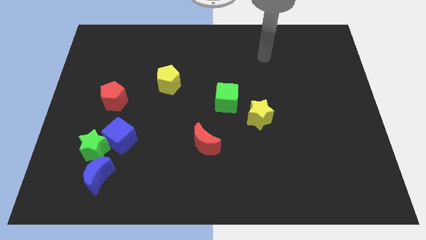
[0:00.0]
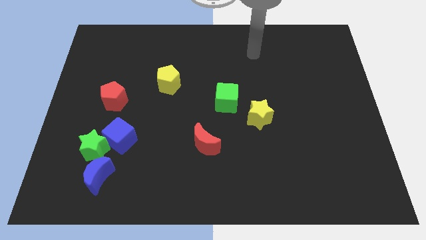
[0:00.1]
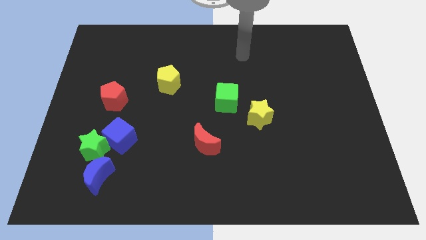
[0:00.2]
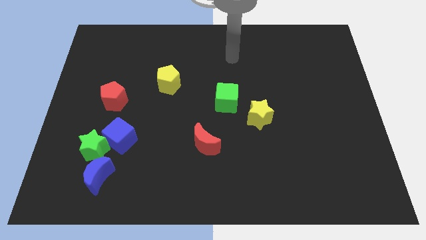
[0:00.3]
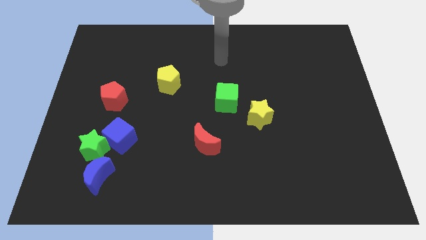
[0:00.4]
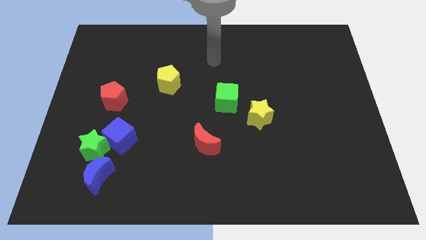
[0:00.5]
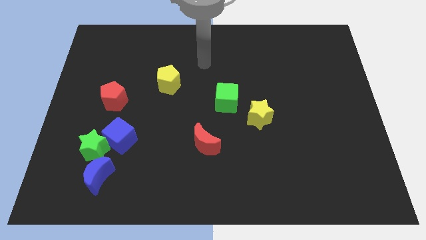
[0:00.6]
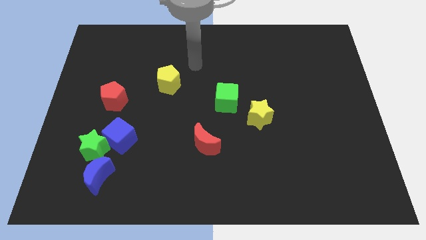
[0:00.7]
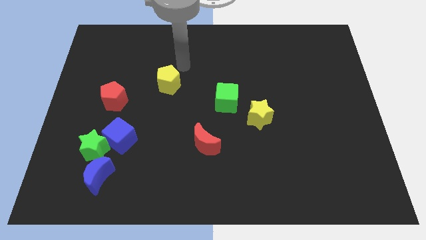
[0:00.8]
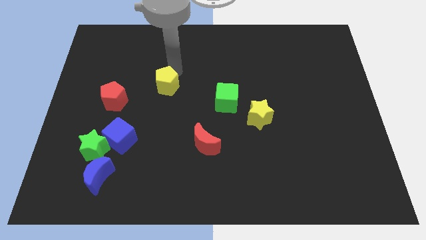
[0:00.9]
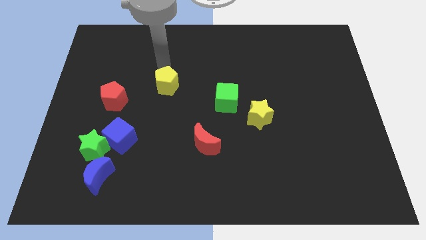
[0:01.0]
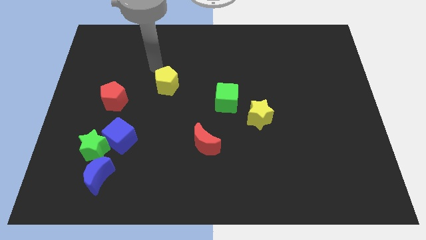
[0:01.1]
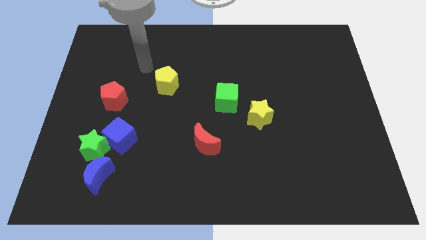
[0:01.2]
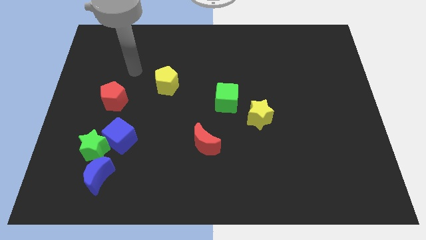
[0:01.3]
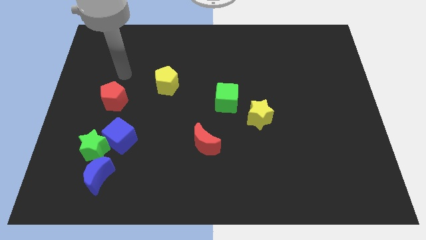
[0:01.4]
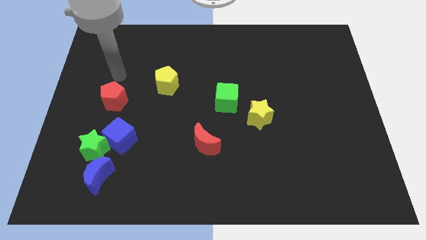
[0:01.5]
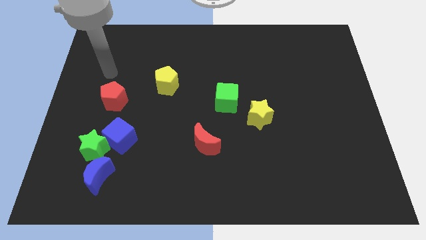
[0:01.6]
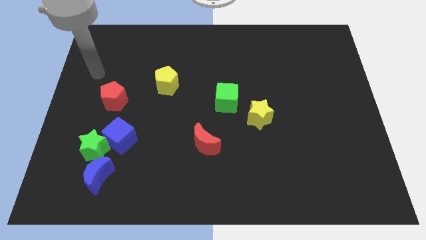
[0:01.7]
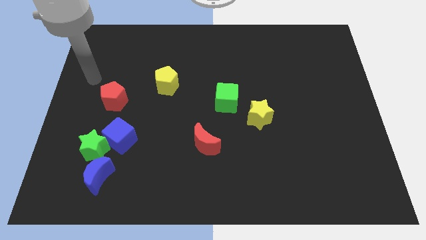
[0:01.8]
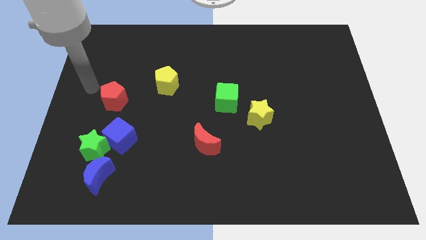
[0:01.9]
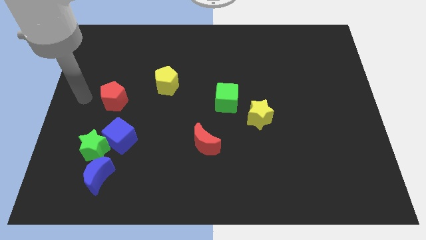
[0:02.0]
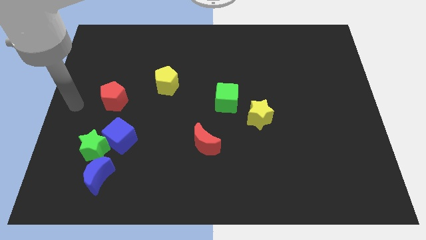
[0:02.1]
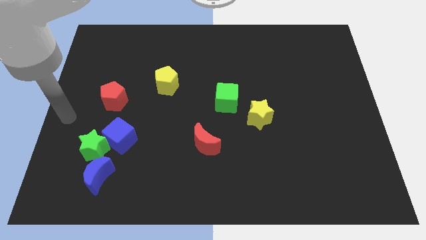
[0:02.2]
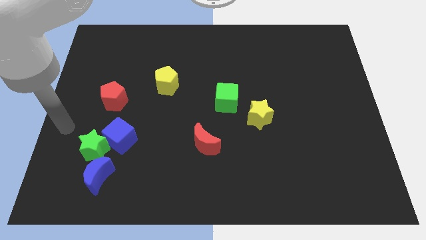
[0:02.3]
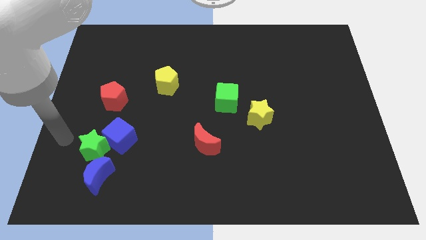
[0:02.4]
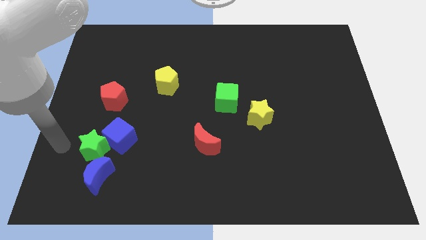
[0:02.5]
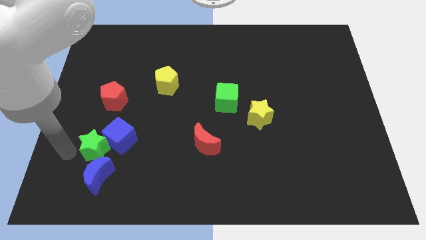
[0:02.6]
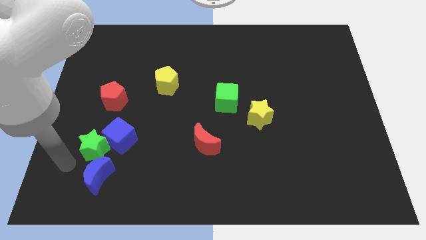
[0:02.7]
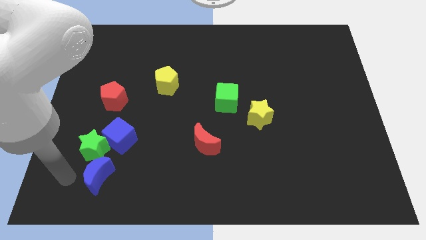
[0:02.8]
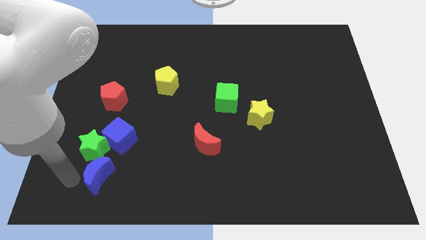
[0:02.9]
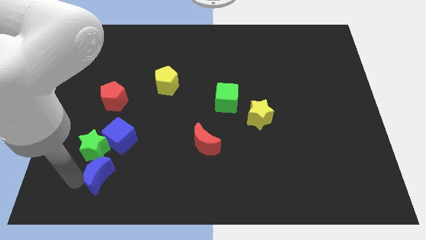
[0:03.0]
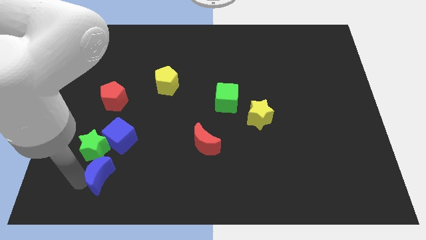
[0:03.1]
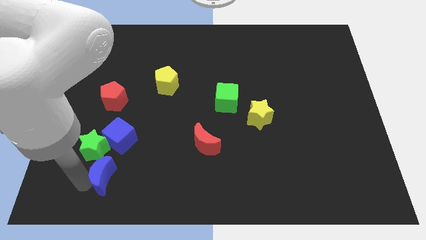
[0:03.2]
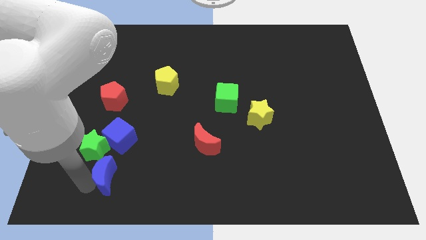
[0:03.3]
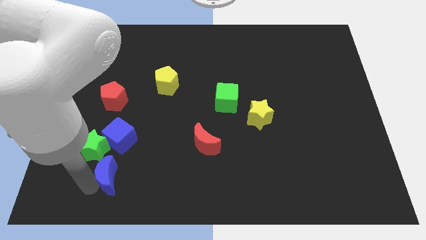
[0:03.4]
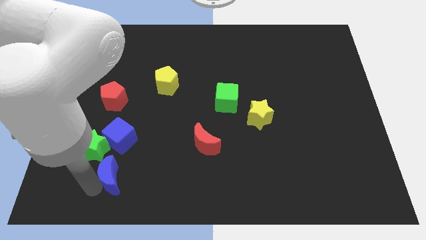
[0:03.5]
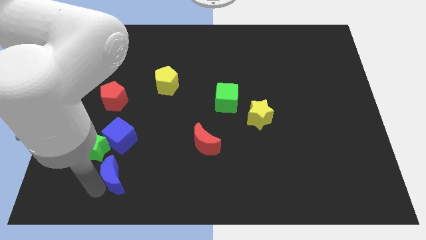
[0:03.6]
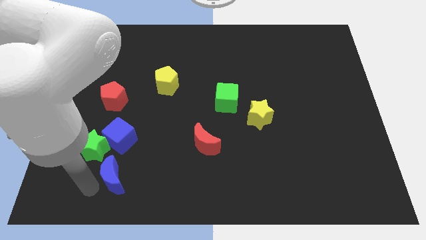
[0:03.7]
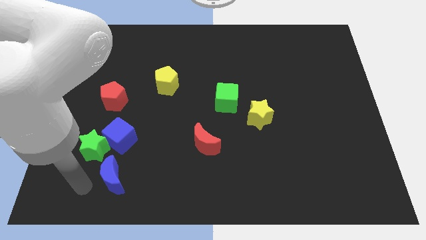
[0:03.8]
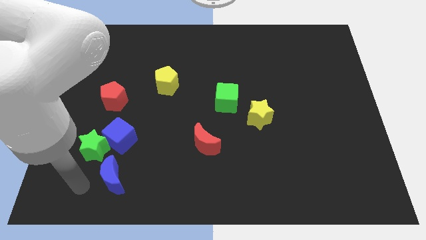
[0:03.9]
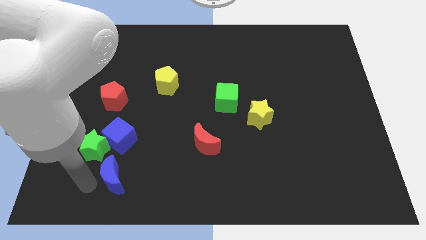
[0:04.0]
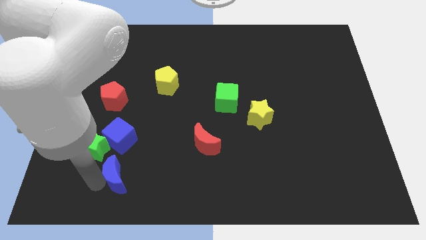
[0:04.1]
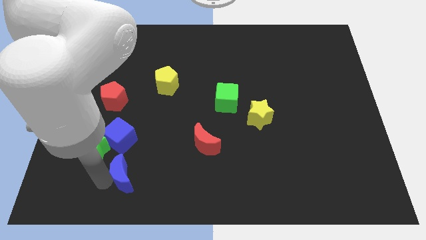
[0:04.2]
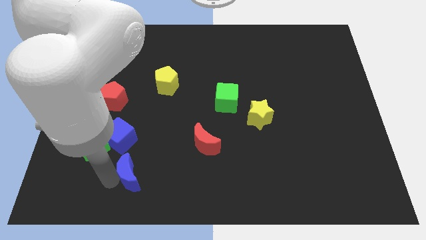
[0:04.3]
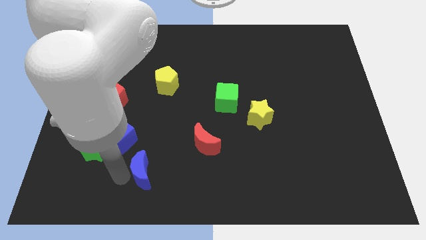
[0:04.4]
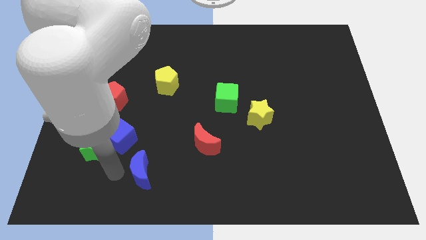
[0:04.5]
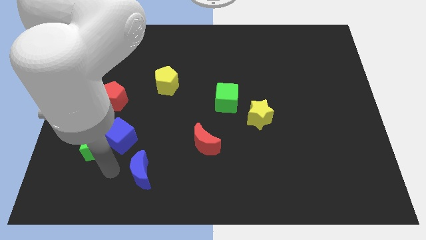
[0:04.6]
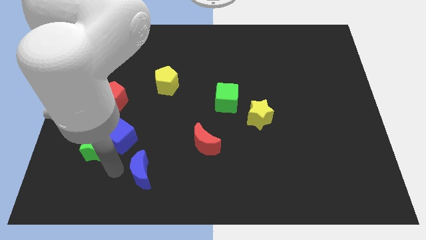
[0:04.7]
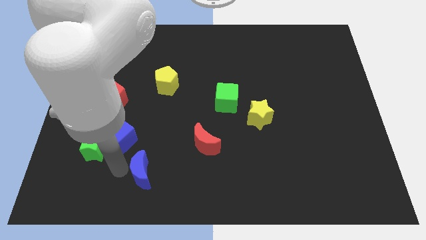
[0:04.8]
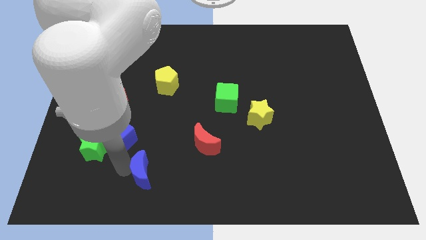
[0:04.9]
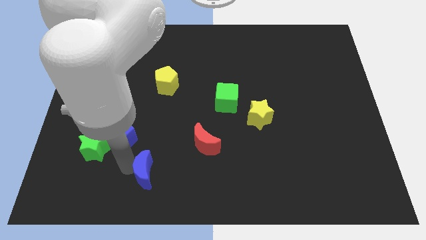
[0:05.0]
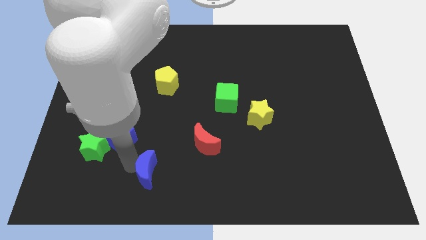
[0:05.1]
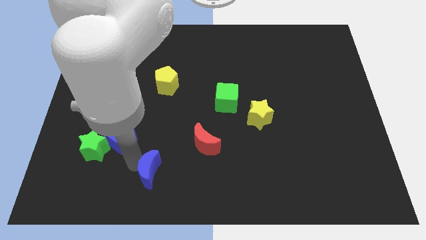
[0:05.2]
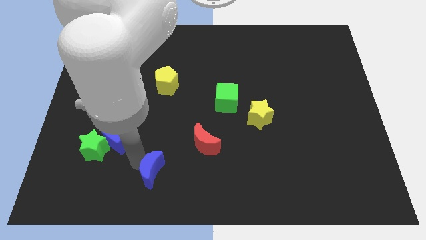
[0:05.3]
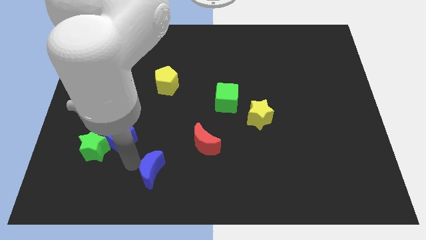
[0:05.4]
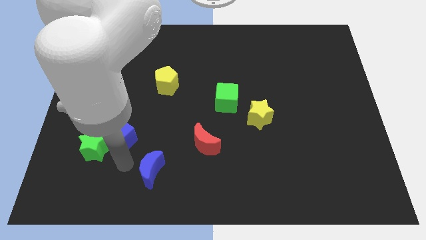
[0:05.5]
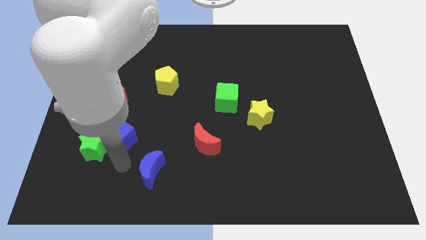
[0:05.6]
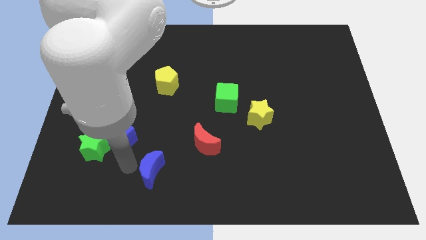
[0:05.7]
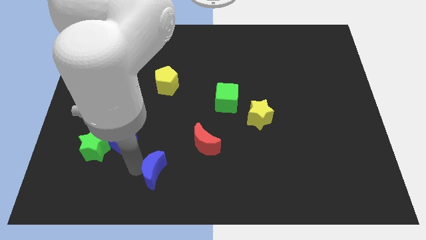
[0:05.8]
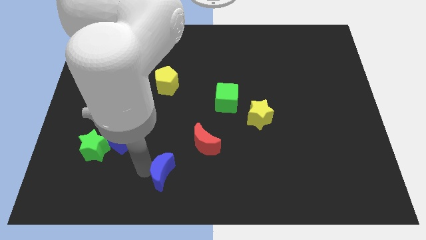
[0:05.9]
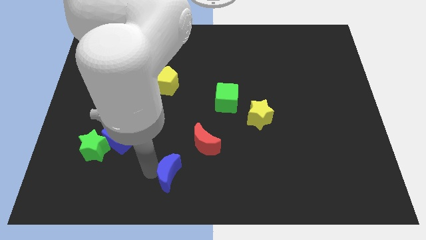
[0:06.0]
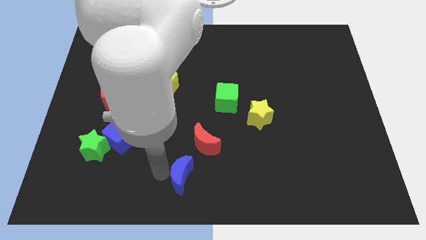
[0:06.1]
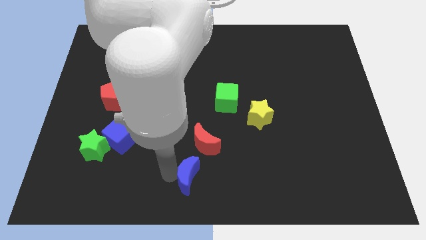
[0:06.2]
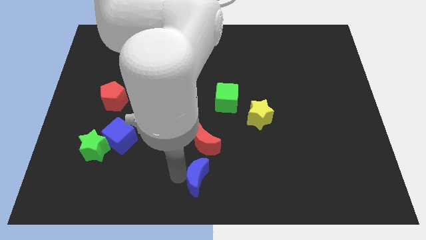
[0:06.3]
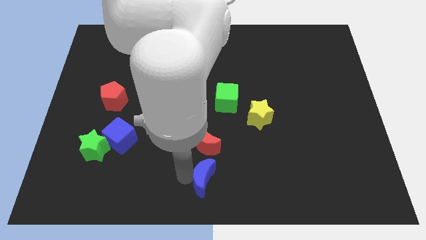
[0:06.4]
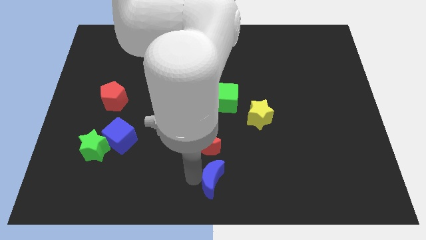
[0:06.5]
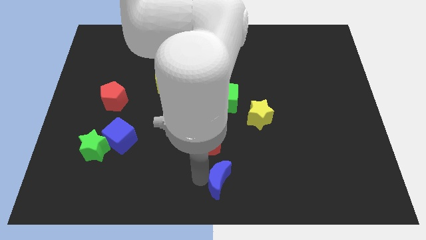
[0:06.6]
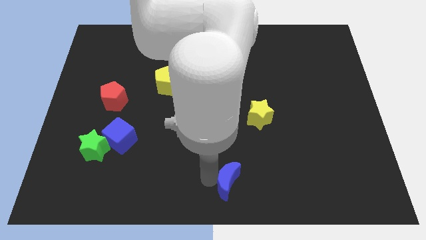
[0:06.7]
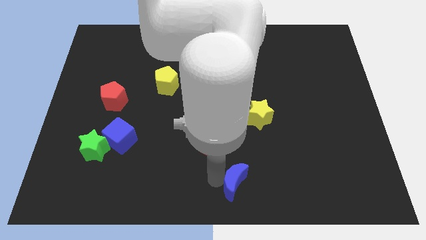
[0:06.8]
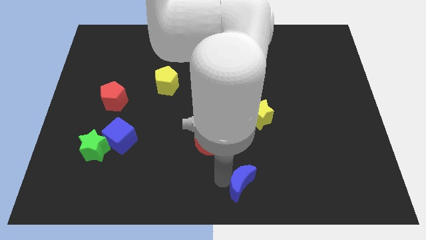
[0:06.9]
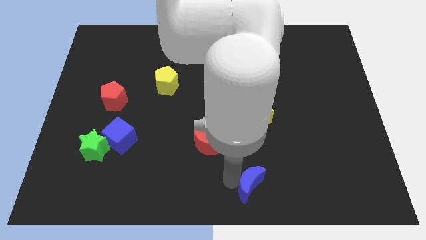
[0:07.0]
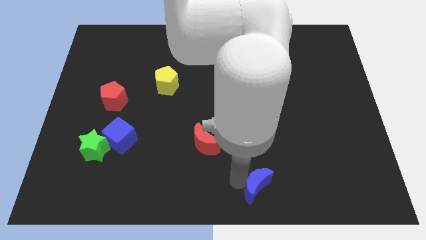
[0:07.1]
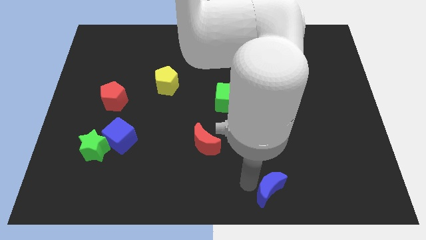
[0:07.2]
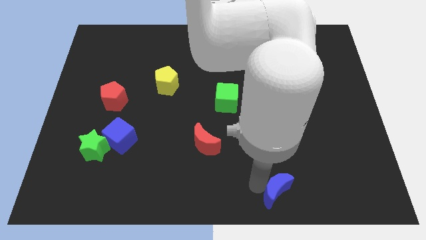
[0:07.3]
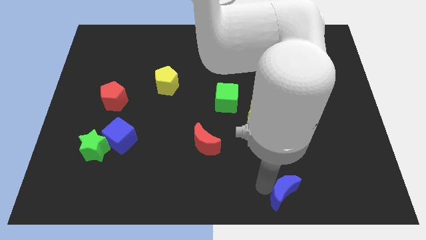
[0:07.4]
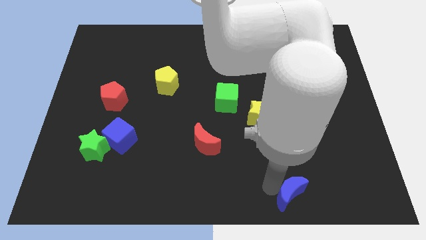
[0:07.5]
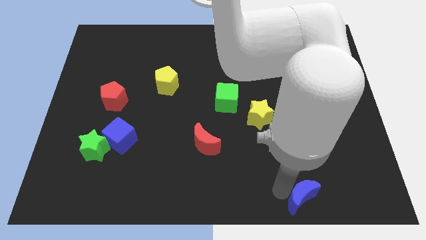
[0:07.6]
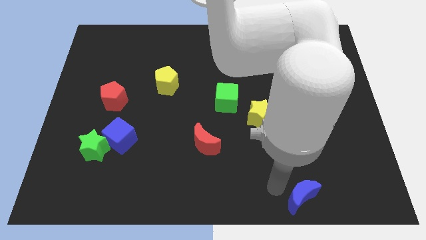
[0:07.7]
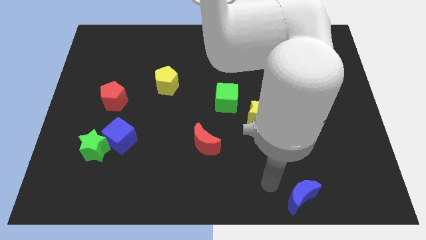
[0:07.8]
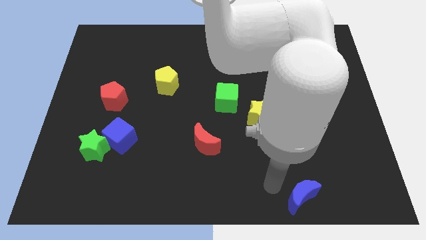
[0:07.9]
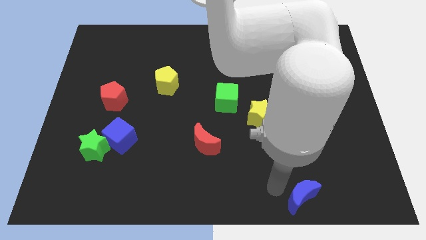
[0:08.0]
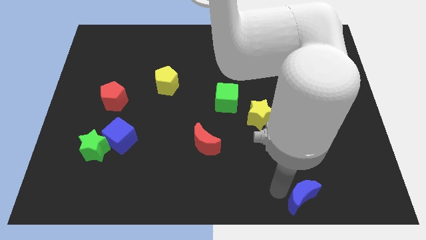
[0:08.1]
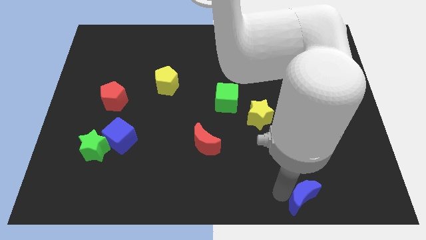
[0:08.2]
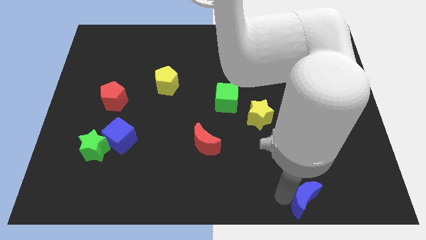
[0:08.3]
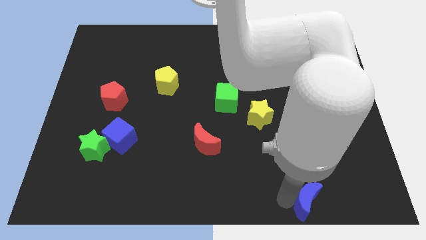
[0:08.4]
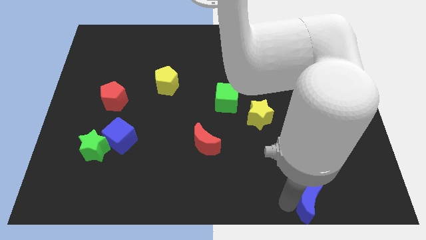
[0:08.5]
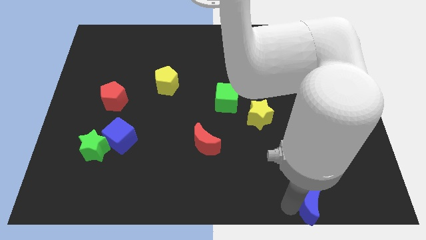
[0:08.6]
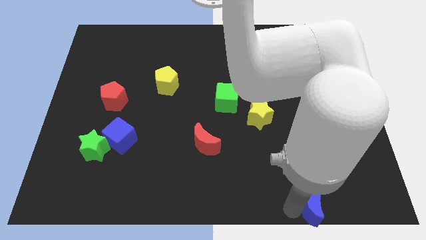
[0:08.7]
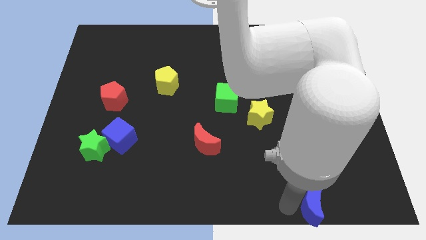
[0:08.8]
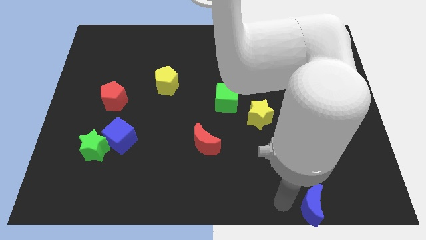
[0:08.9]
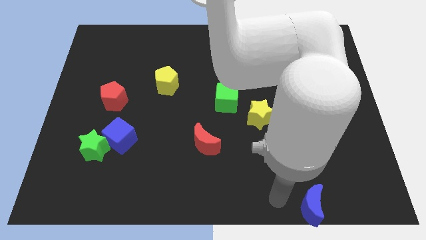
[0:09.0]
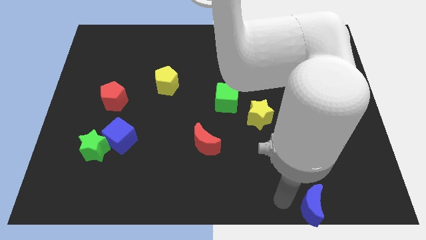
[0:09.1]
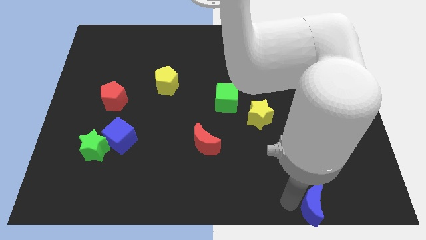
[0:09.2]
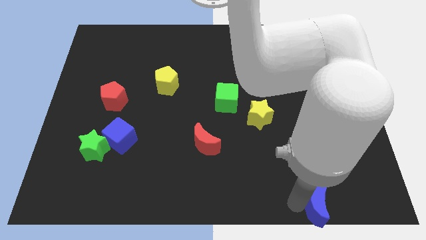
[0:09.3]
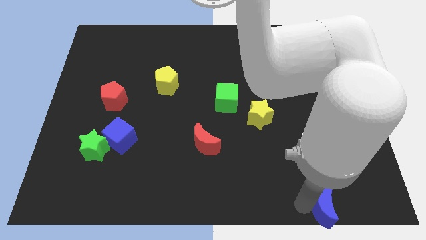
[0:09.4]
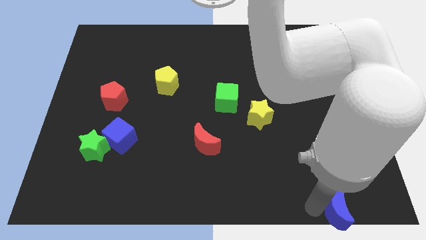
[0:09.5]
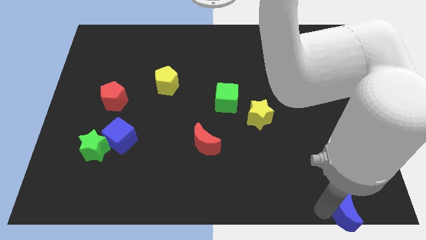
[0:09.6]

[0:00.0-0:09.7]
move the blue moon to the lower right corner
